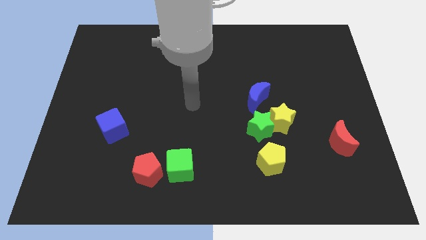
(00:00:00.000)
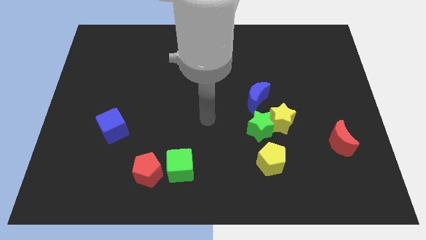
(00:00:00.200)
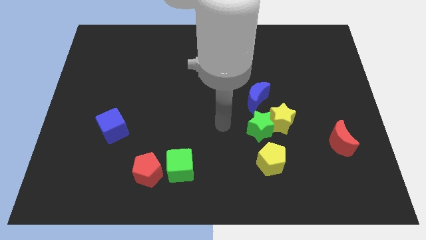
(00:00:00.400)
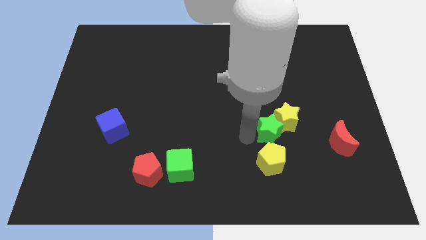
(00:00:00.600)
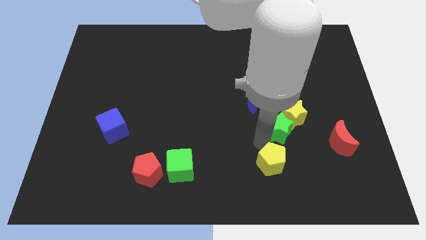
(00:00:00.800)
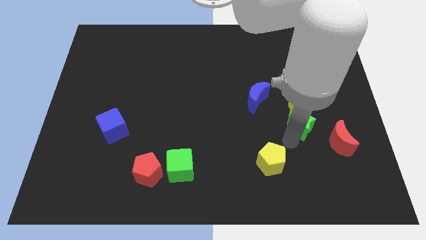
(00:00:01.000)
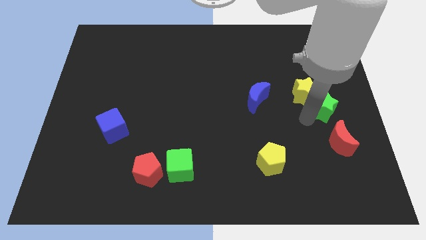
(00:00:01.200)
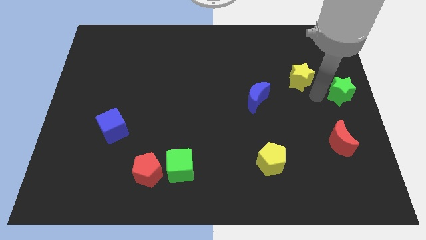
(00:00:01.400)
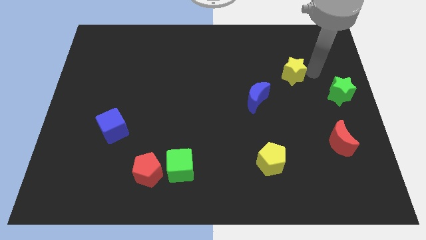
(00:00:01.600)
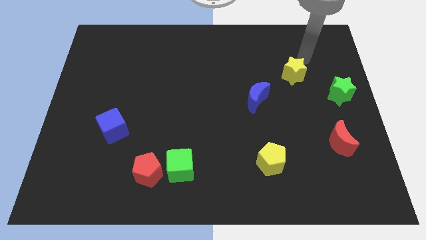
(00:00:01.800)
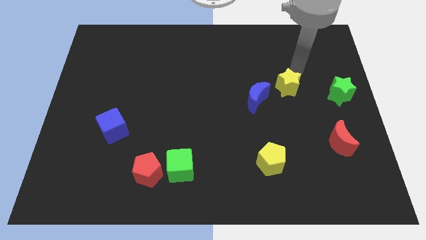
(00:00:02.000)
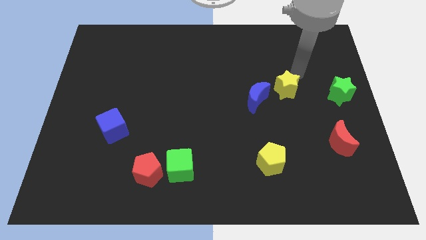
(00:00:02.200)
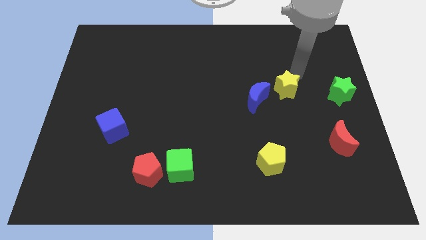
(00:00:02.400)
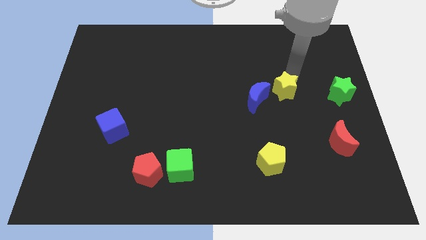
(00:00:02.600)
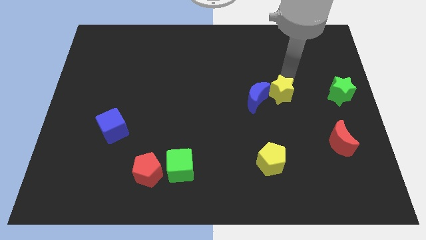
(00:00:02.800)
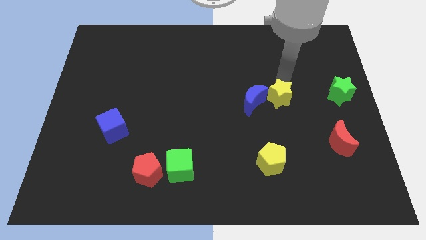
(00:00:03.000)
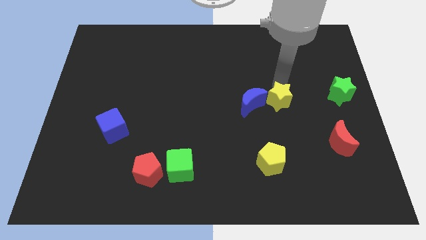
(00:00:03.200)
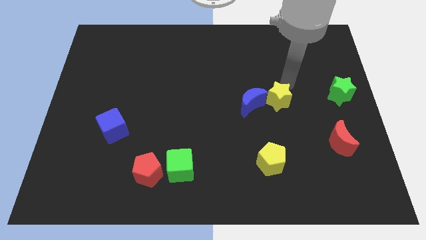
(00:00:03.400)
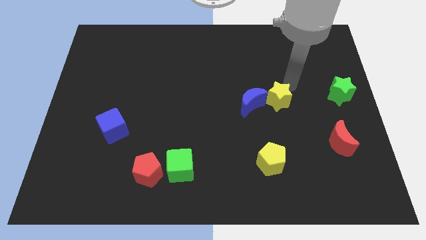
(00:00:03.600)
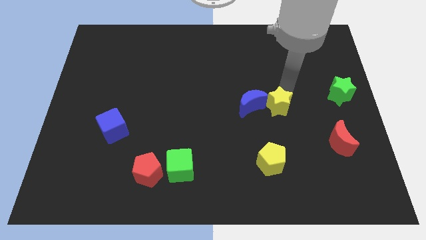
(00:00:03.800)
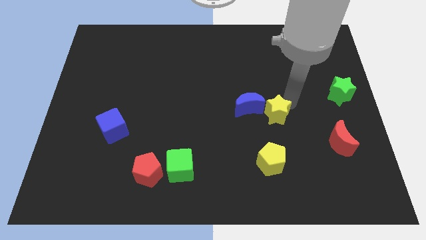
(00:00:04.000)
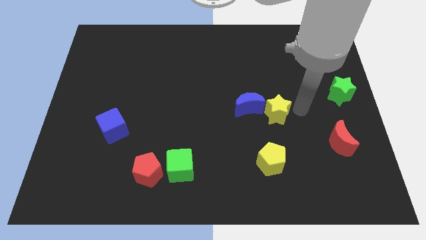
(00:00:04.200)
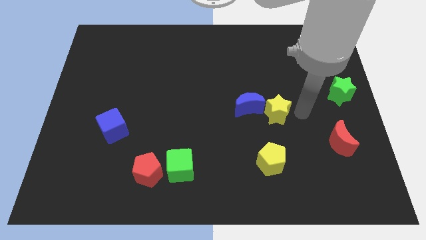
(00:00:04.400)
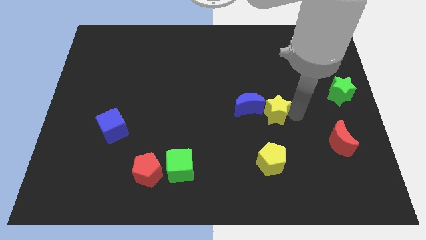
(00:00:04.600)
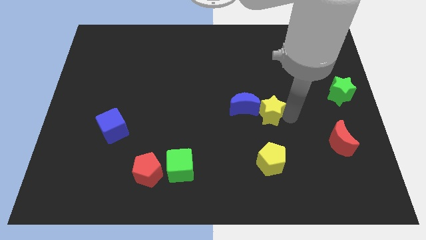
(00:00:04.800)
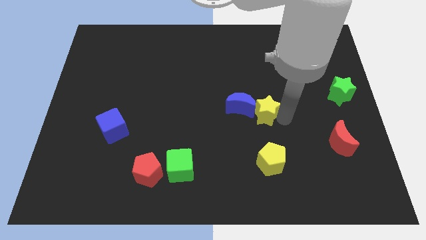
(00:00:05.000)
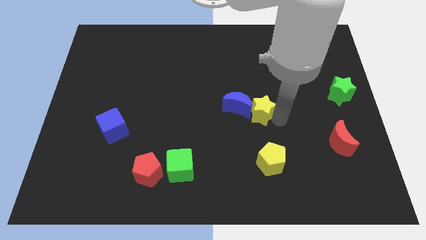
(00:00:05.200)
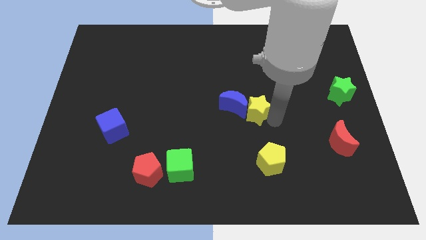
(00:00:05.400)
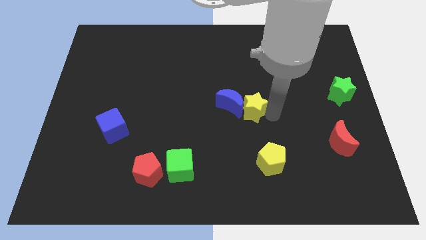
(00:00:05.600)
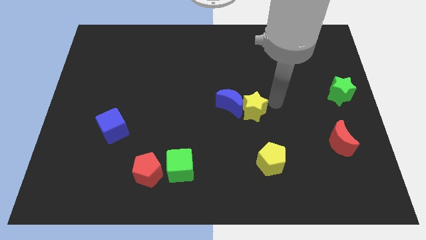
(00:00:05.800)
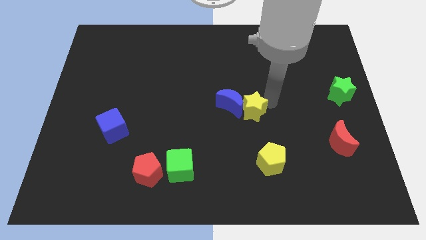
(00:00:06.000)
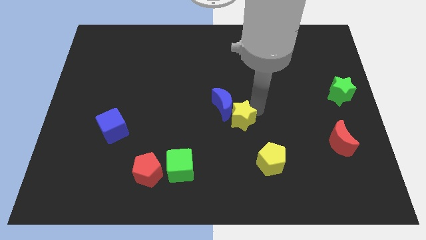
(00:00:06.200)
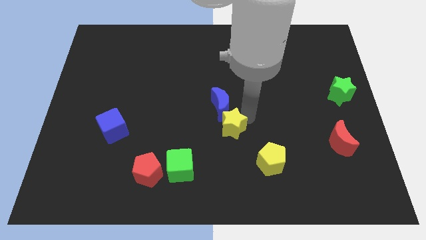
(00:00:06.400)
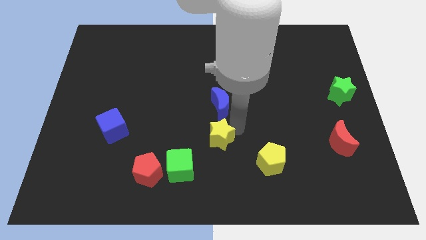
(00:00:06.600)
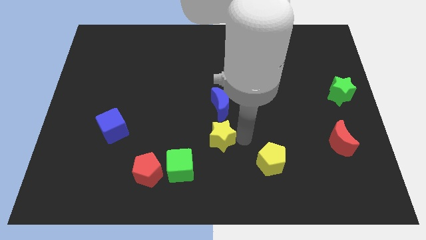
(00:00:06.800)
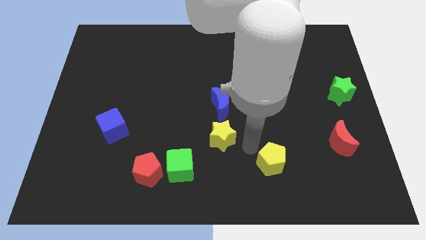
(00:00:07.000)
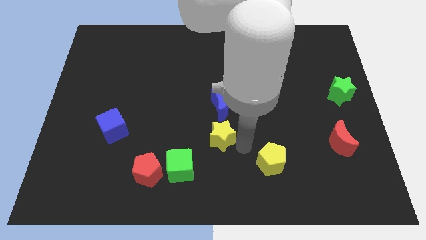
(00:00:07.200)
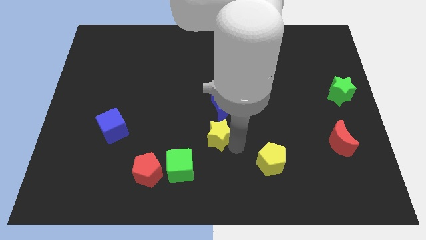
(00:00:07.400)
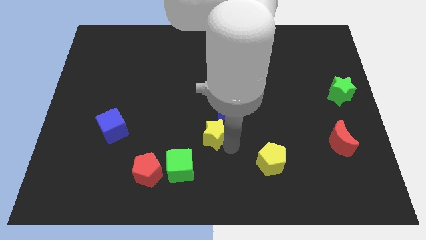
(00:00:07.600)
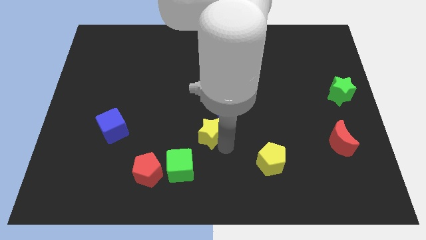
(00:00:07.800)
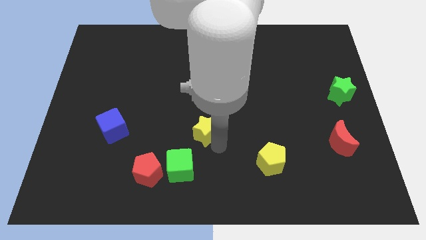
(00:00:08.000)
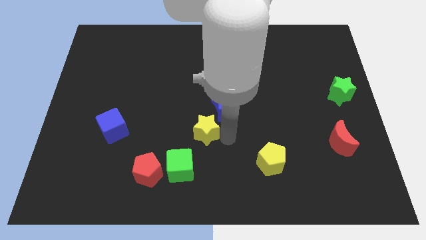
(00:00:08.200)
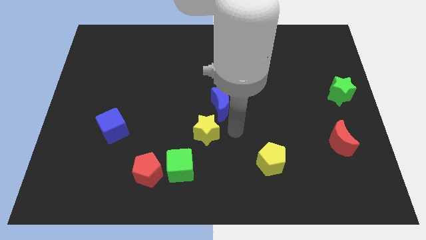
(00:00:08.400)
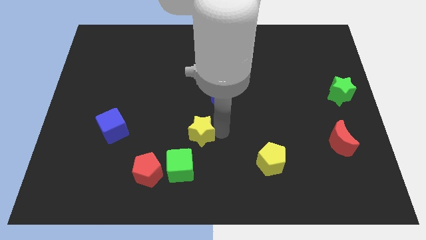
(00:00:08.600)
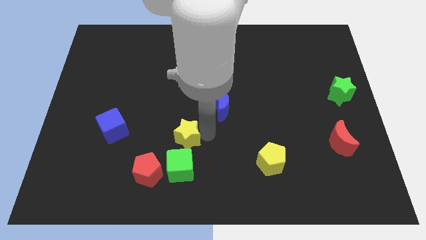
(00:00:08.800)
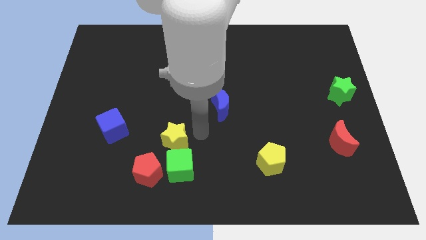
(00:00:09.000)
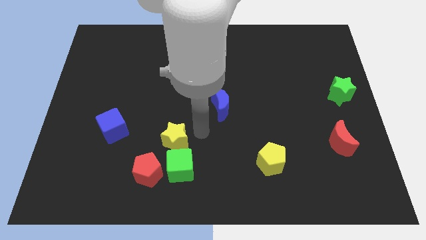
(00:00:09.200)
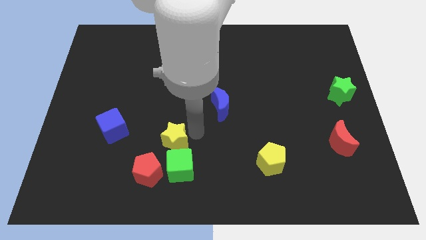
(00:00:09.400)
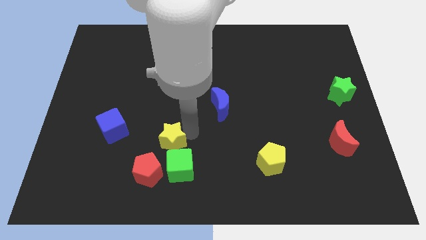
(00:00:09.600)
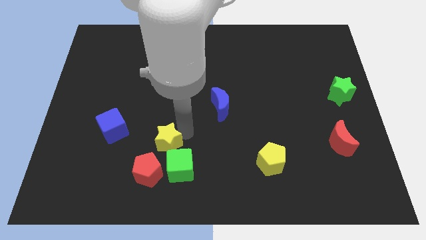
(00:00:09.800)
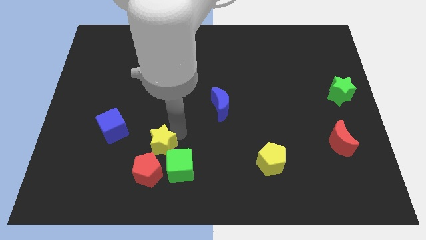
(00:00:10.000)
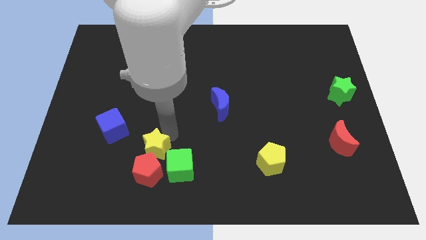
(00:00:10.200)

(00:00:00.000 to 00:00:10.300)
put the yellow star just left of the green cube

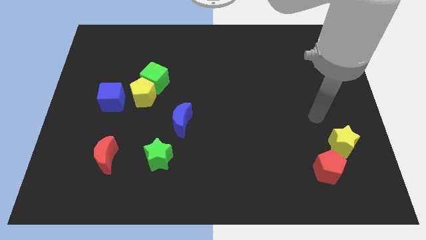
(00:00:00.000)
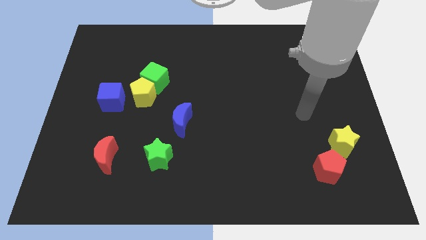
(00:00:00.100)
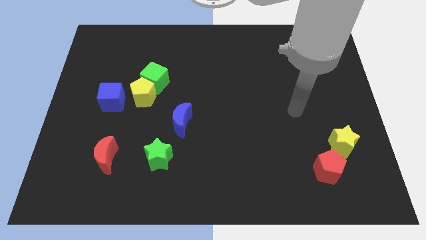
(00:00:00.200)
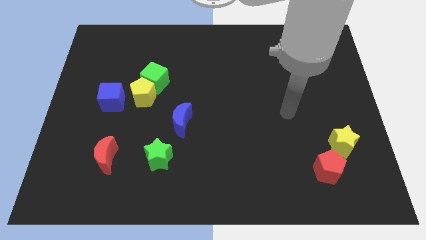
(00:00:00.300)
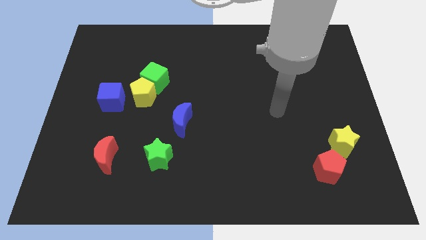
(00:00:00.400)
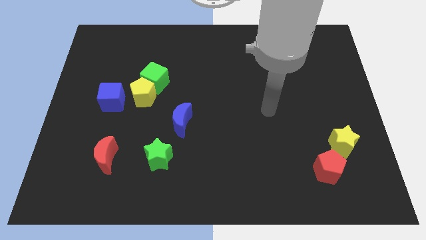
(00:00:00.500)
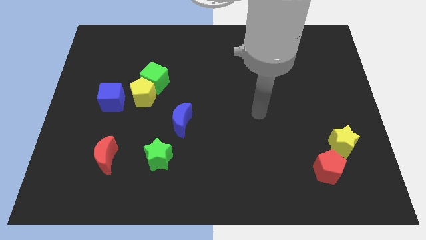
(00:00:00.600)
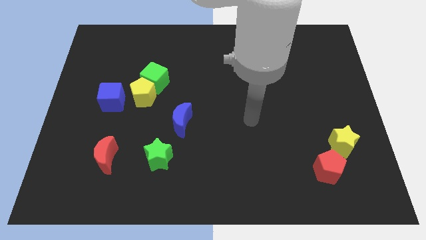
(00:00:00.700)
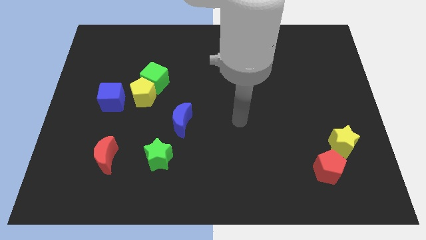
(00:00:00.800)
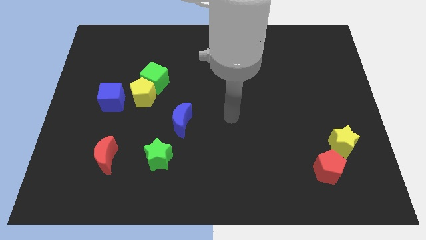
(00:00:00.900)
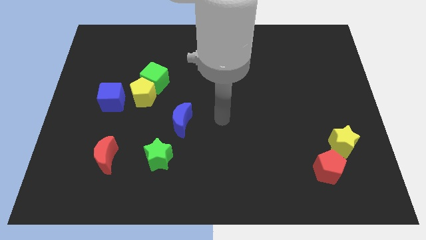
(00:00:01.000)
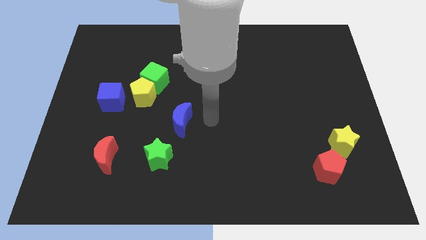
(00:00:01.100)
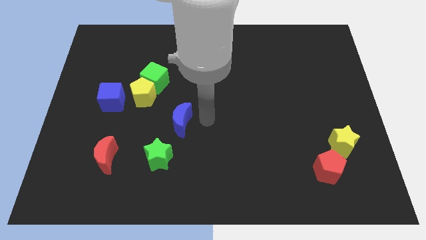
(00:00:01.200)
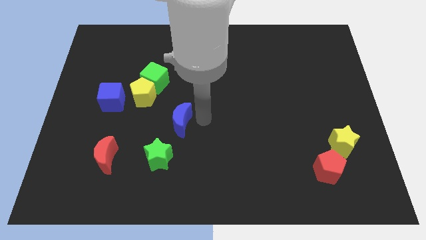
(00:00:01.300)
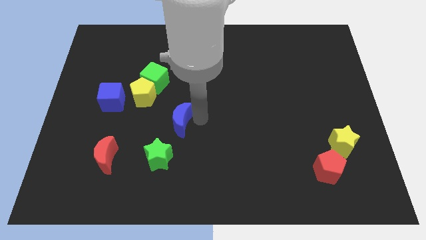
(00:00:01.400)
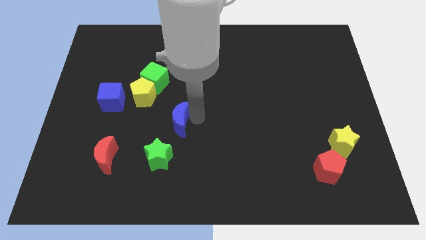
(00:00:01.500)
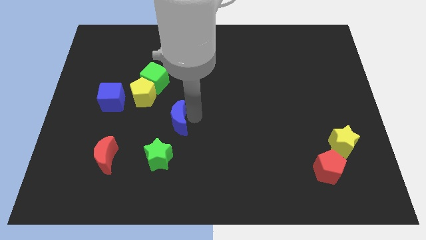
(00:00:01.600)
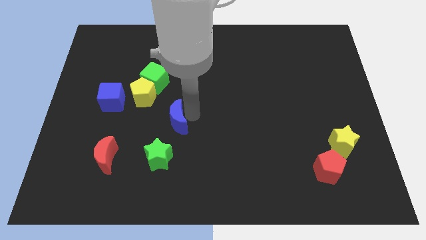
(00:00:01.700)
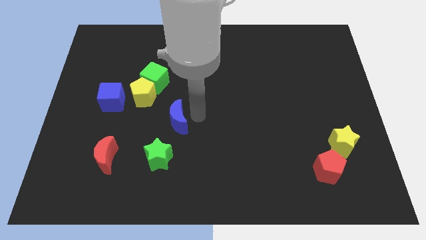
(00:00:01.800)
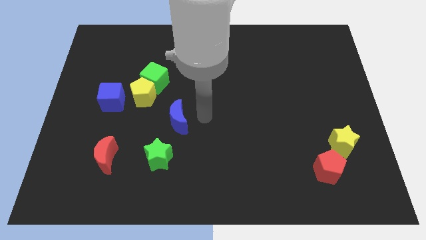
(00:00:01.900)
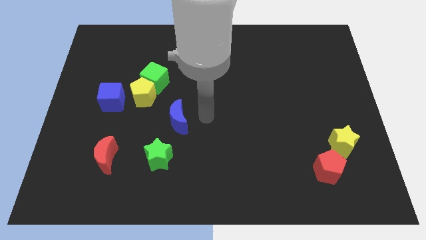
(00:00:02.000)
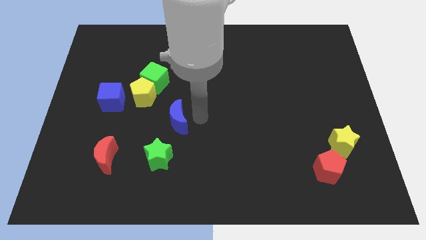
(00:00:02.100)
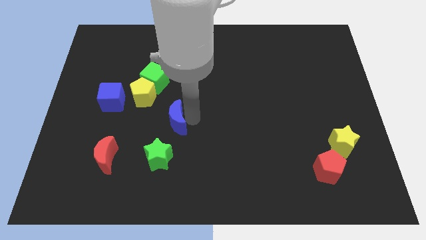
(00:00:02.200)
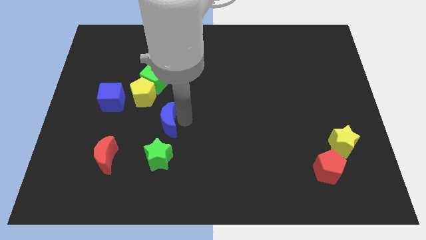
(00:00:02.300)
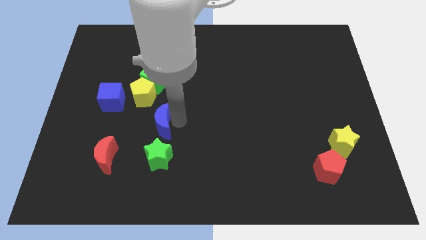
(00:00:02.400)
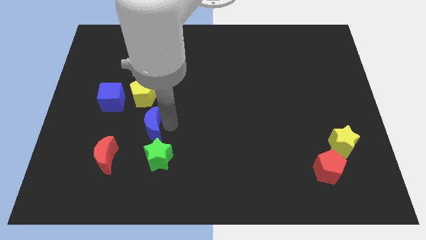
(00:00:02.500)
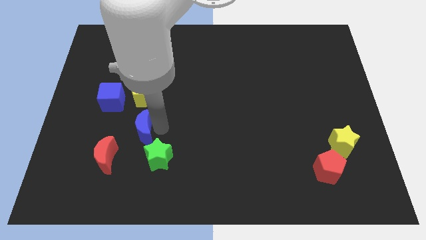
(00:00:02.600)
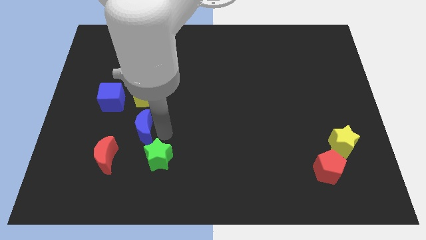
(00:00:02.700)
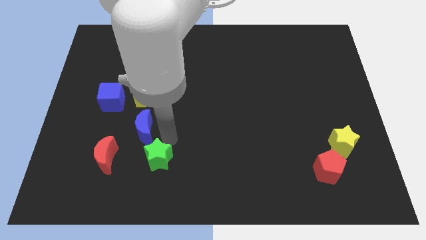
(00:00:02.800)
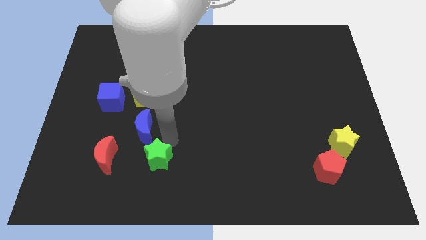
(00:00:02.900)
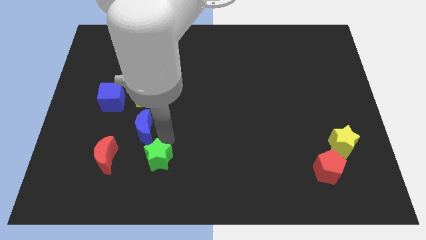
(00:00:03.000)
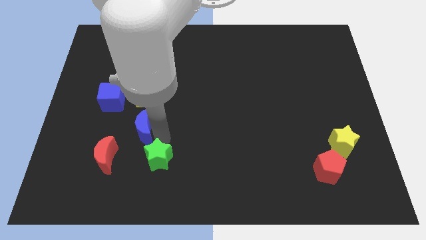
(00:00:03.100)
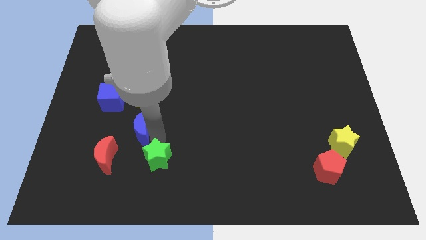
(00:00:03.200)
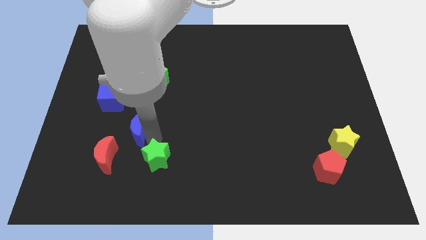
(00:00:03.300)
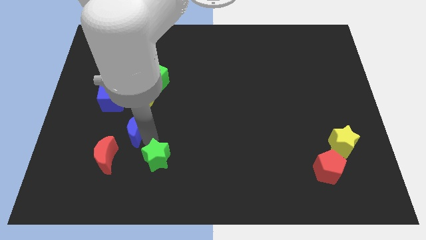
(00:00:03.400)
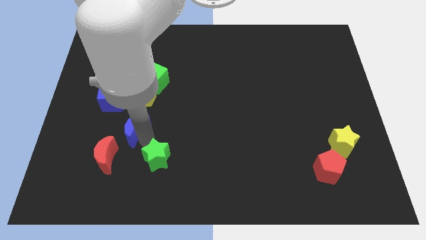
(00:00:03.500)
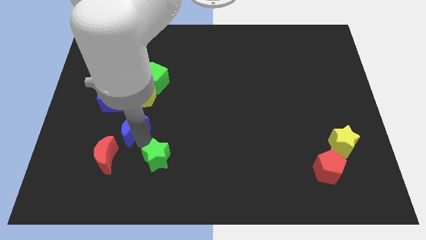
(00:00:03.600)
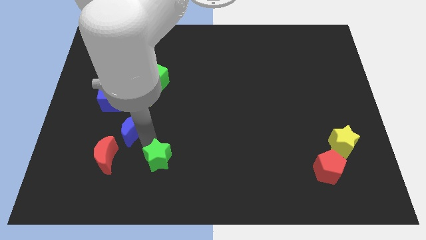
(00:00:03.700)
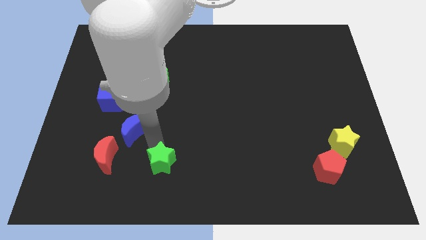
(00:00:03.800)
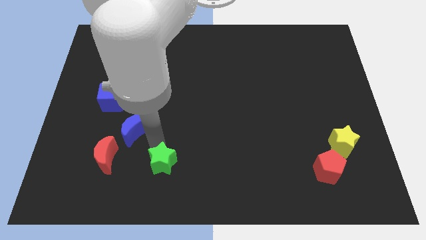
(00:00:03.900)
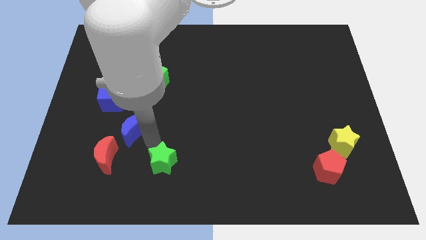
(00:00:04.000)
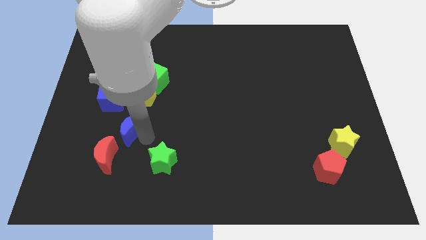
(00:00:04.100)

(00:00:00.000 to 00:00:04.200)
put the blue moon above the red moon
